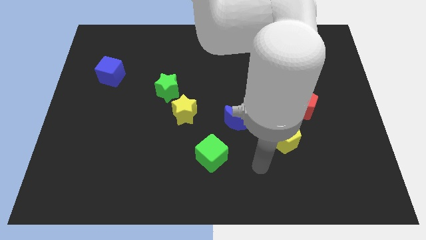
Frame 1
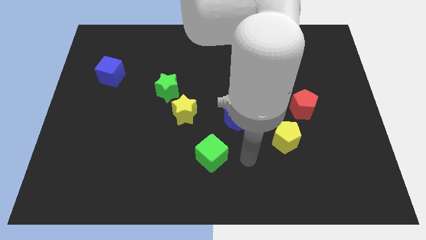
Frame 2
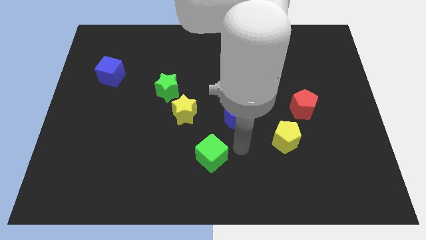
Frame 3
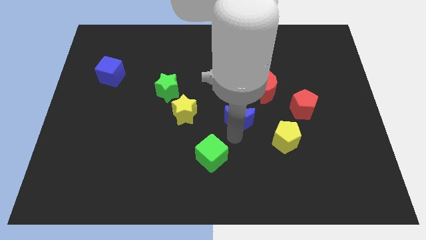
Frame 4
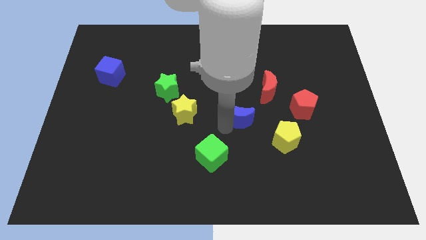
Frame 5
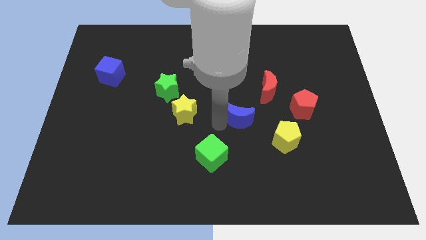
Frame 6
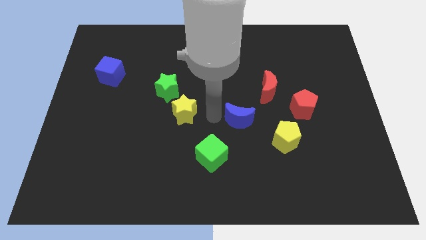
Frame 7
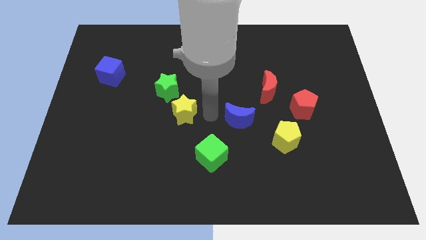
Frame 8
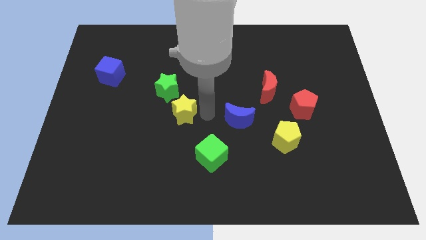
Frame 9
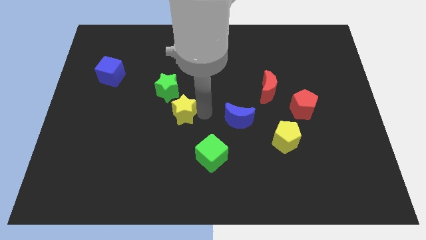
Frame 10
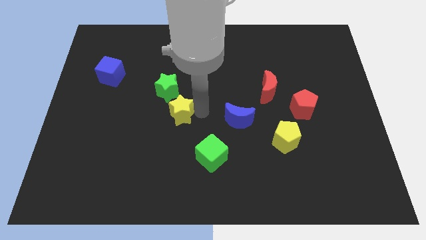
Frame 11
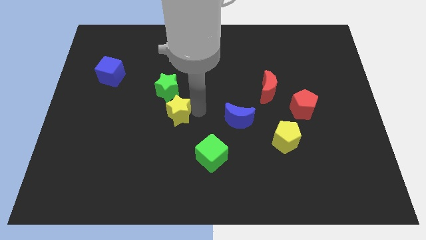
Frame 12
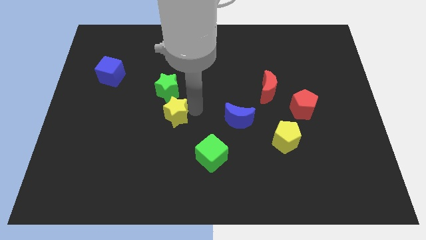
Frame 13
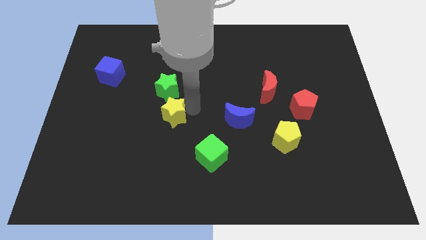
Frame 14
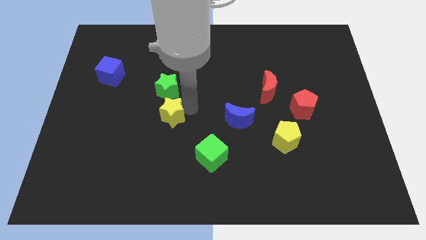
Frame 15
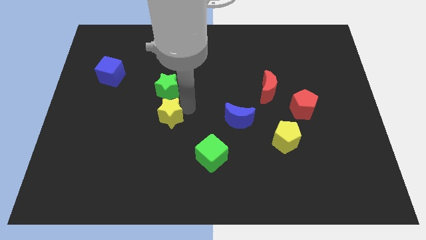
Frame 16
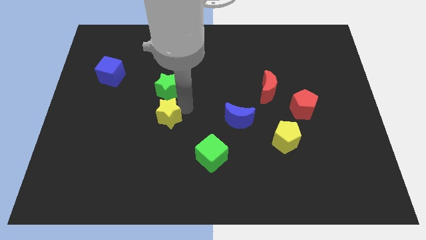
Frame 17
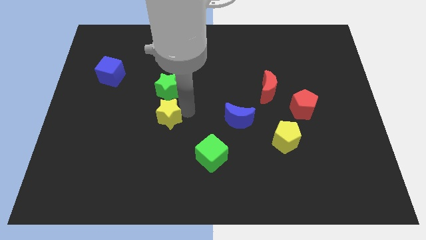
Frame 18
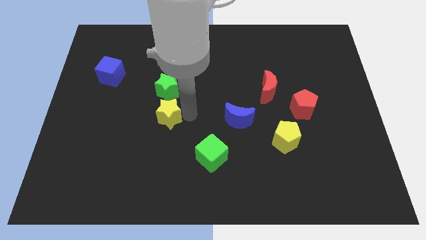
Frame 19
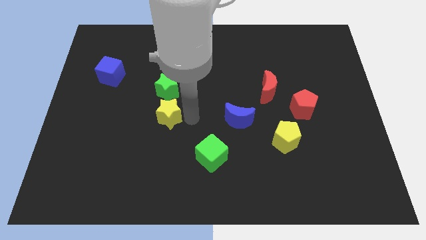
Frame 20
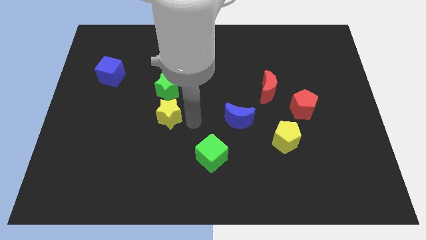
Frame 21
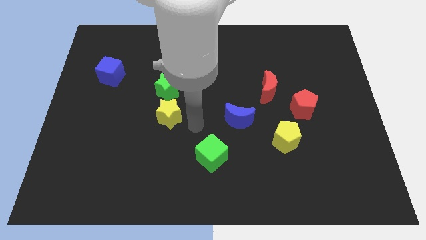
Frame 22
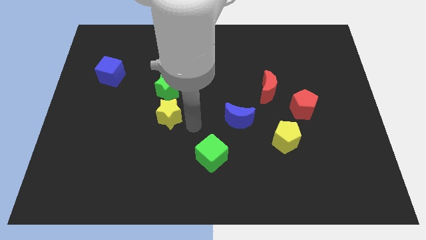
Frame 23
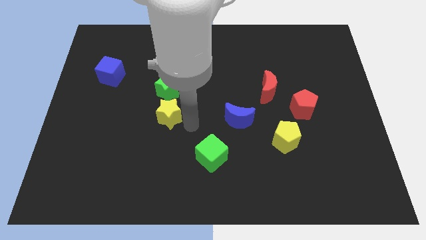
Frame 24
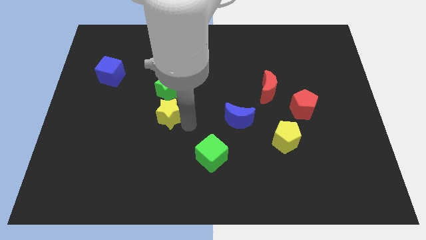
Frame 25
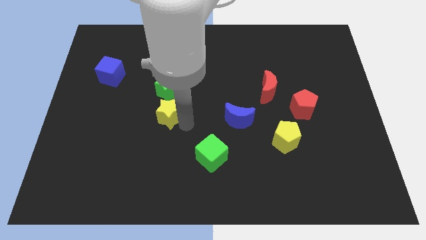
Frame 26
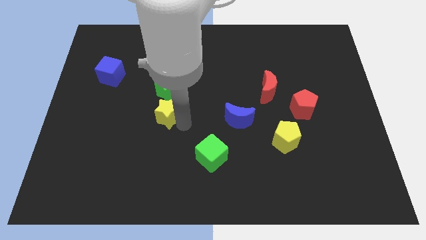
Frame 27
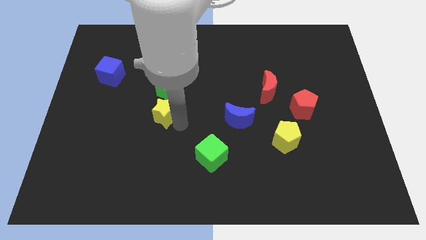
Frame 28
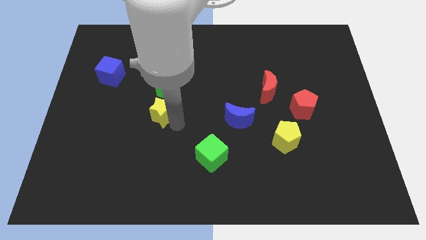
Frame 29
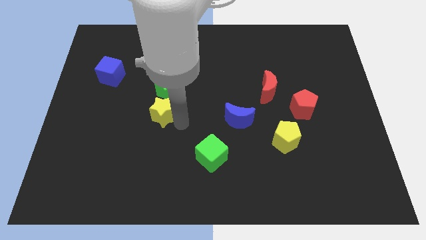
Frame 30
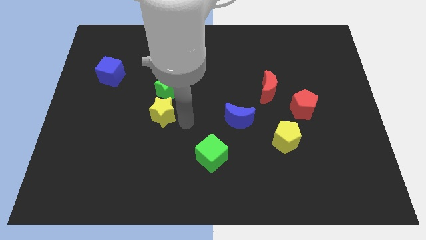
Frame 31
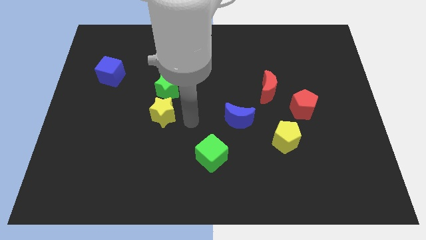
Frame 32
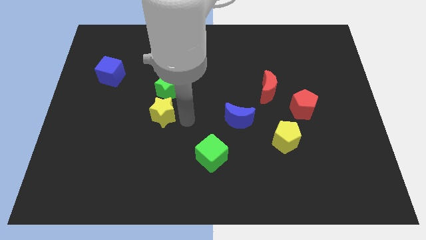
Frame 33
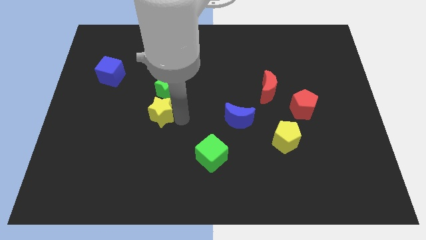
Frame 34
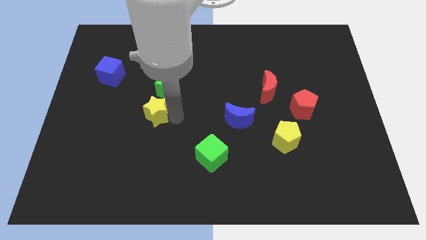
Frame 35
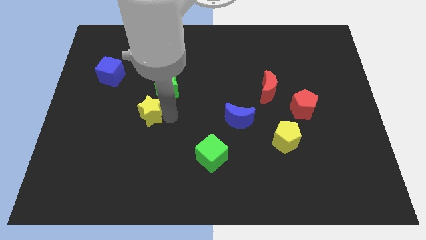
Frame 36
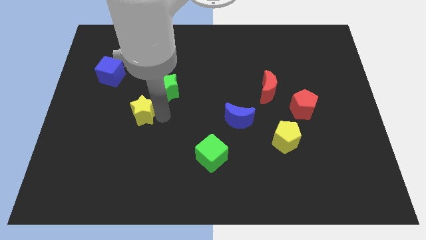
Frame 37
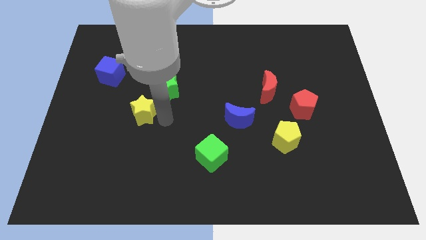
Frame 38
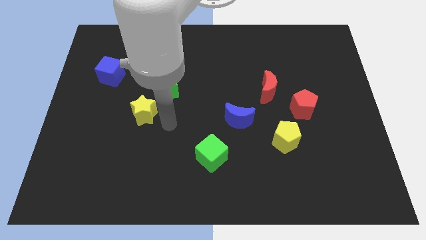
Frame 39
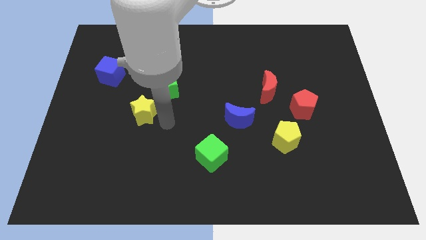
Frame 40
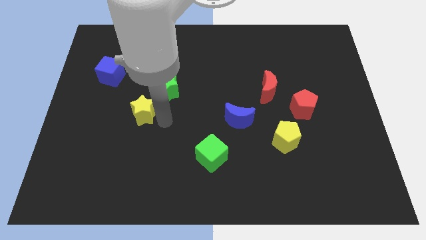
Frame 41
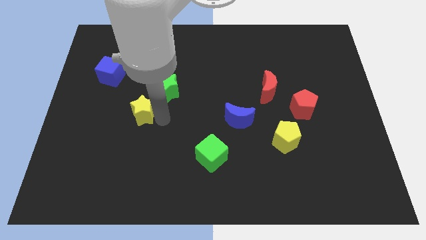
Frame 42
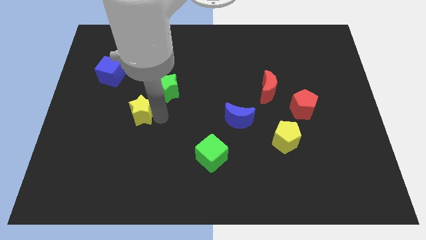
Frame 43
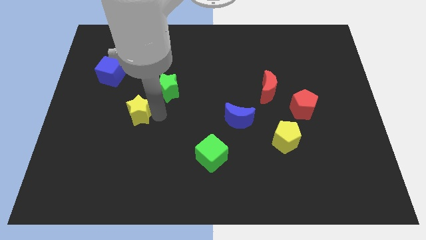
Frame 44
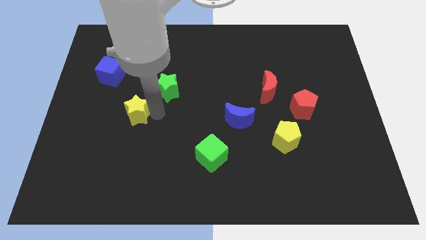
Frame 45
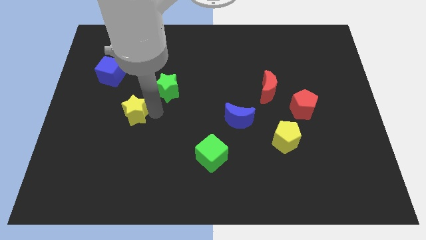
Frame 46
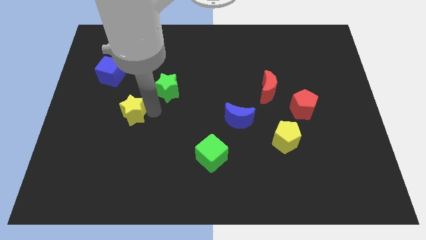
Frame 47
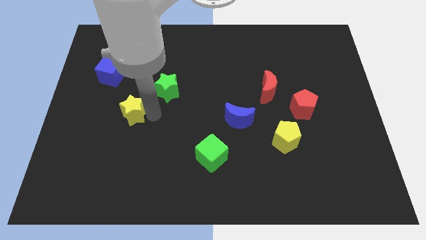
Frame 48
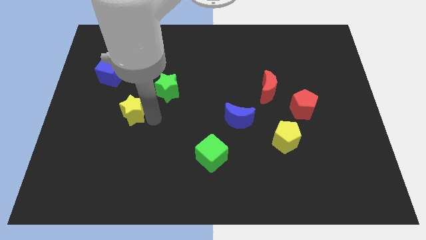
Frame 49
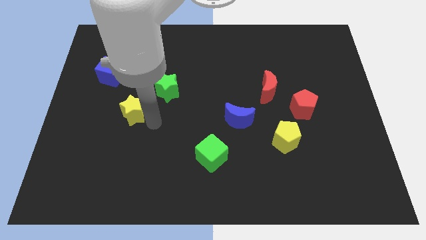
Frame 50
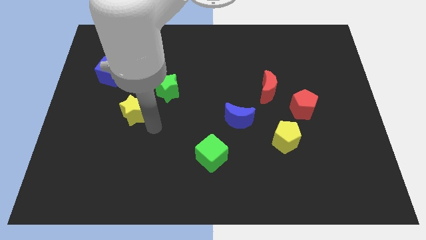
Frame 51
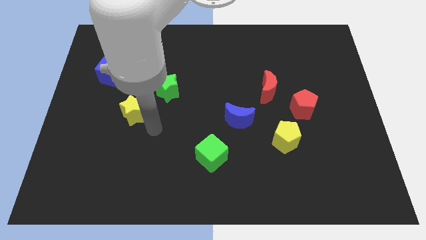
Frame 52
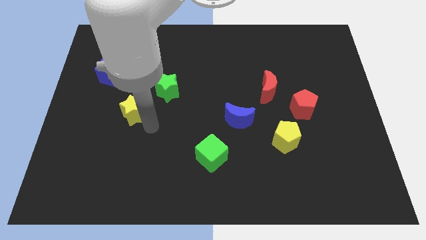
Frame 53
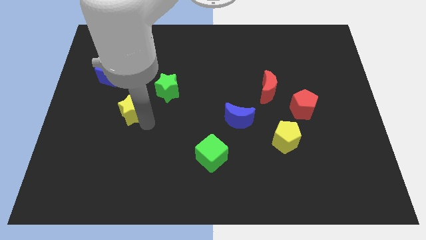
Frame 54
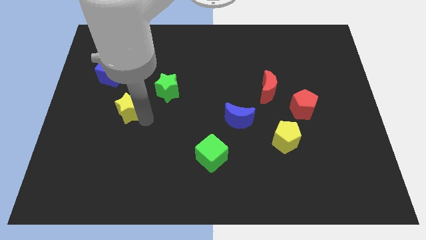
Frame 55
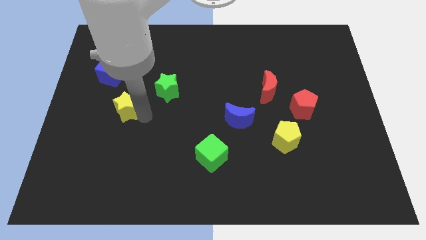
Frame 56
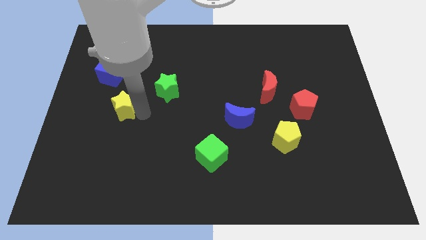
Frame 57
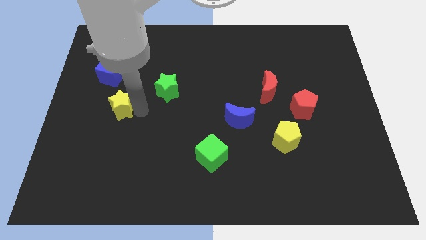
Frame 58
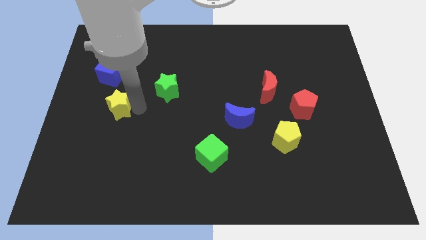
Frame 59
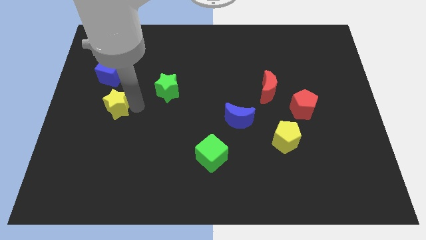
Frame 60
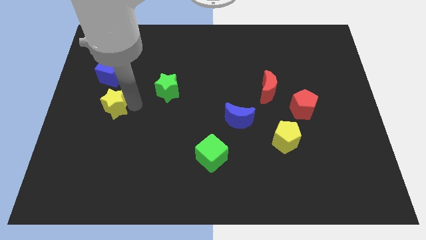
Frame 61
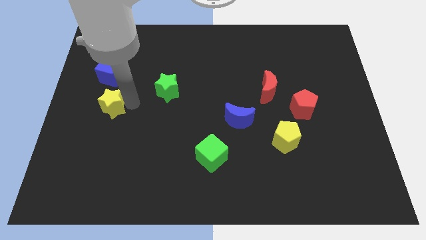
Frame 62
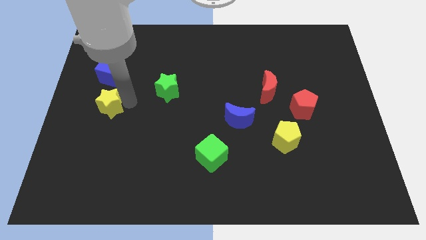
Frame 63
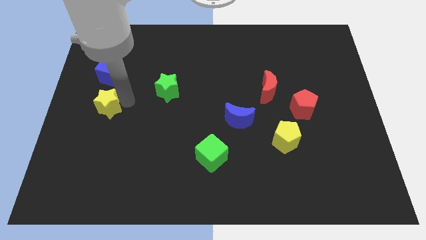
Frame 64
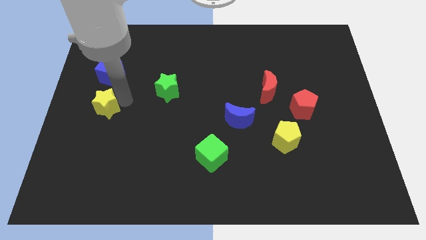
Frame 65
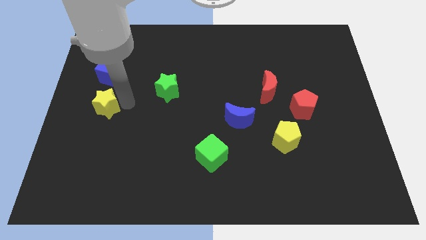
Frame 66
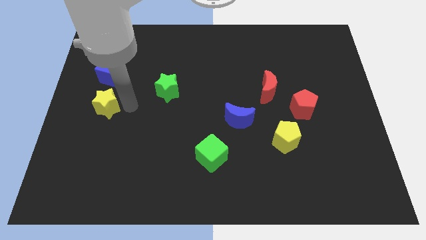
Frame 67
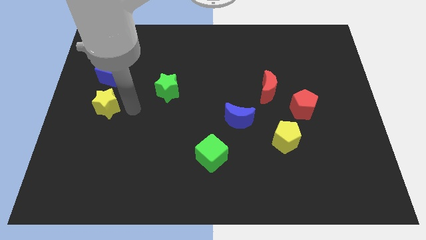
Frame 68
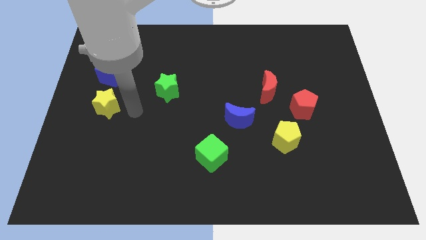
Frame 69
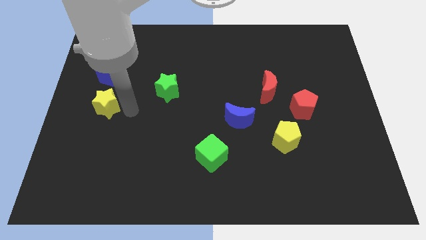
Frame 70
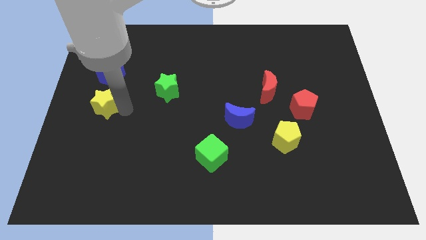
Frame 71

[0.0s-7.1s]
push the yellow star to the center left
